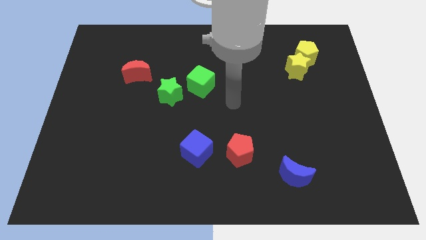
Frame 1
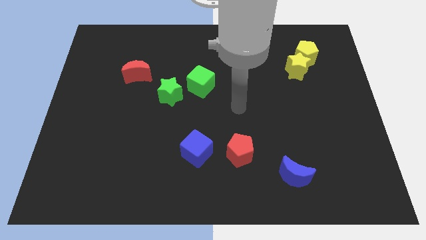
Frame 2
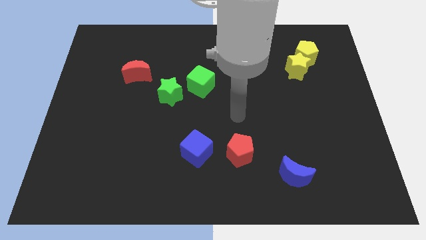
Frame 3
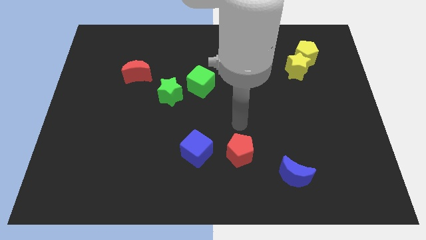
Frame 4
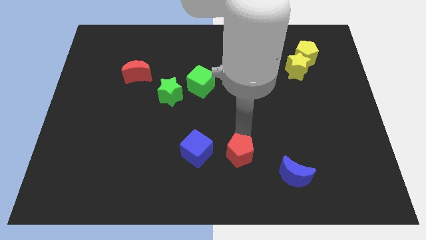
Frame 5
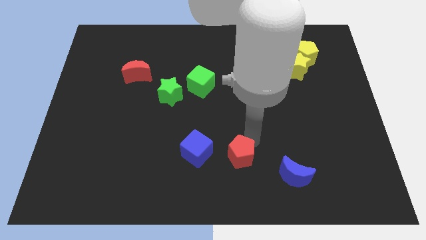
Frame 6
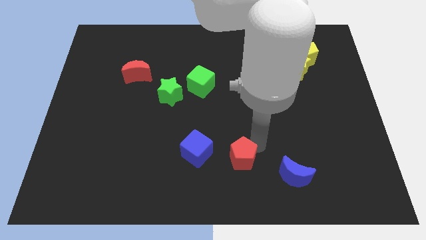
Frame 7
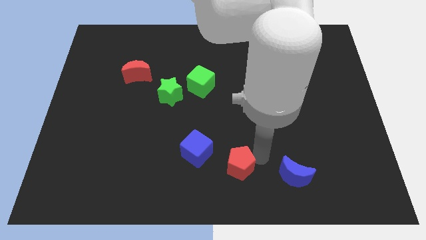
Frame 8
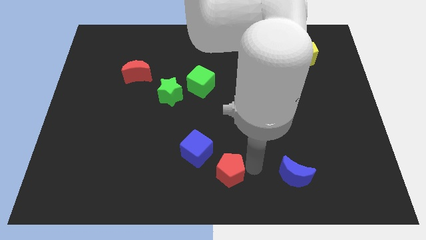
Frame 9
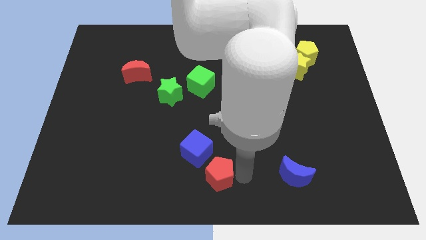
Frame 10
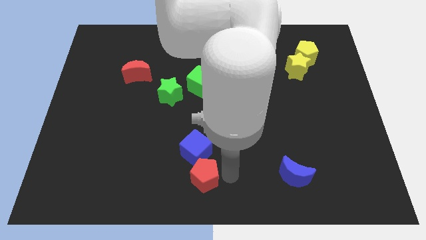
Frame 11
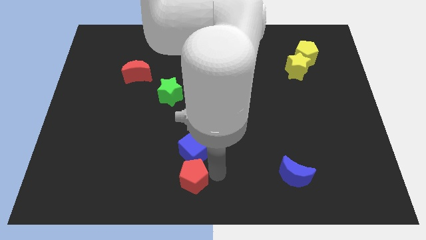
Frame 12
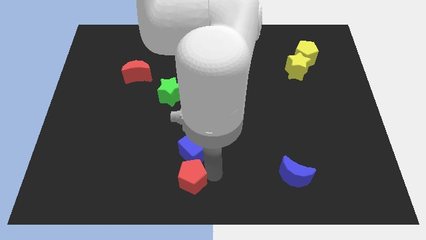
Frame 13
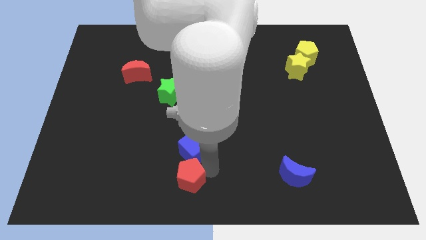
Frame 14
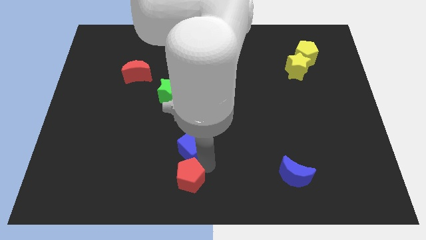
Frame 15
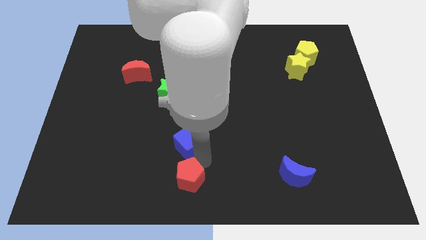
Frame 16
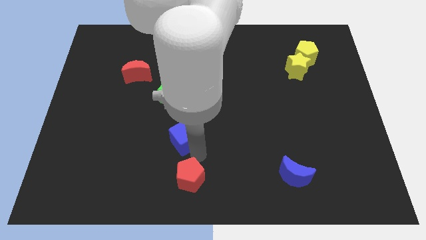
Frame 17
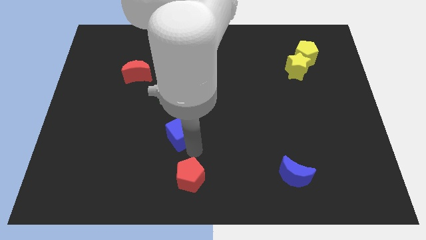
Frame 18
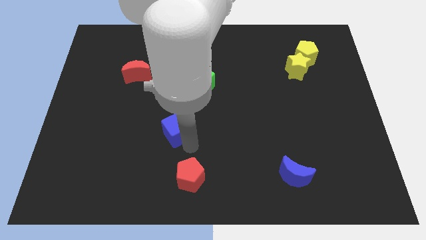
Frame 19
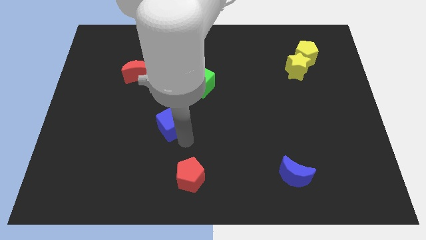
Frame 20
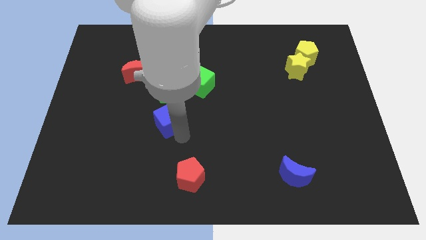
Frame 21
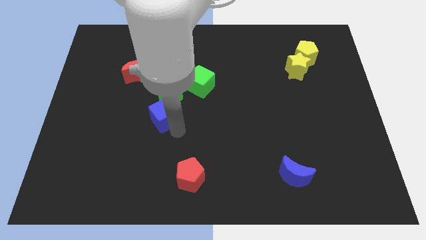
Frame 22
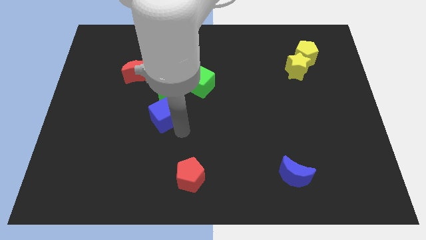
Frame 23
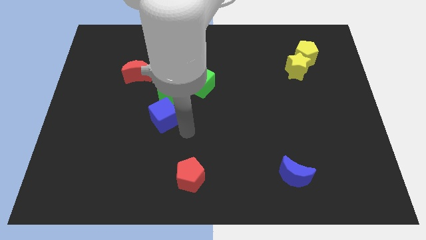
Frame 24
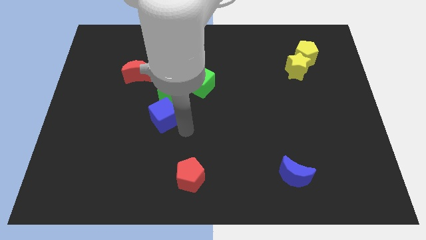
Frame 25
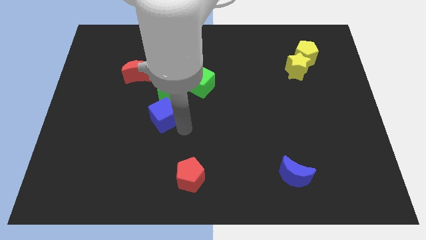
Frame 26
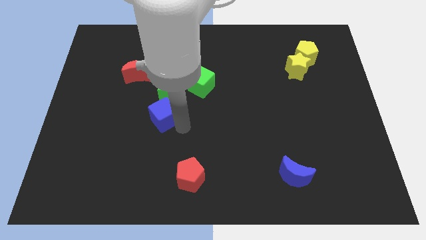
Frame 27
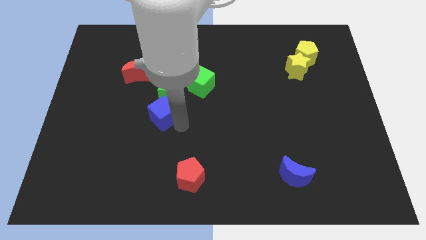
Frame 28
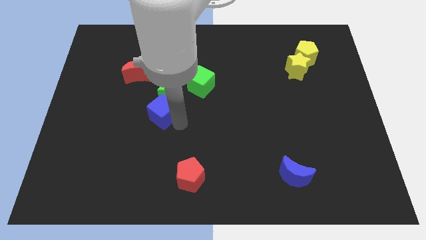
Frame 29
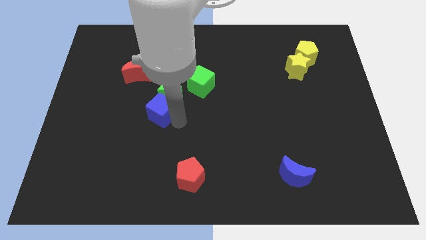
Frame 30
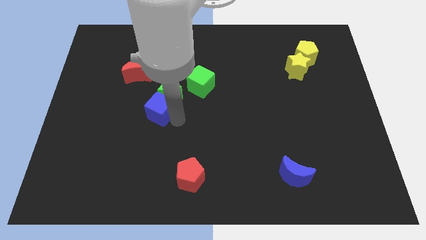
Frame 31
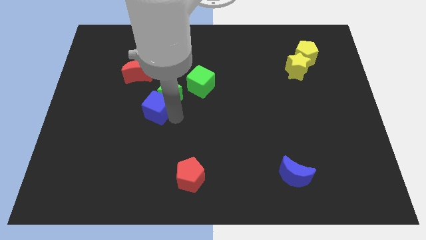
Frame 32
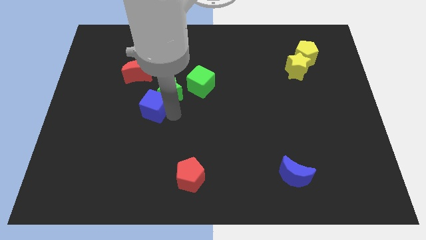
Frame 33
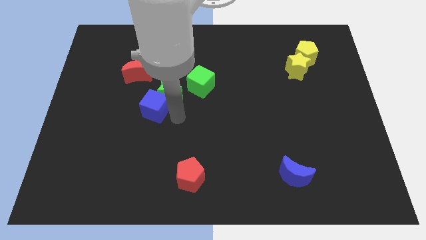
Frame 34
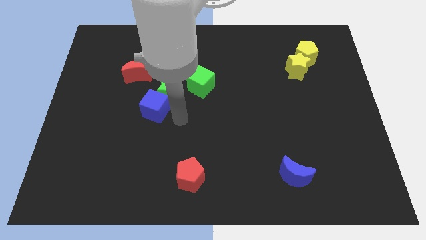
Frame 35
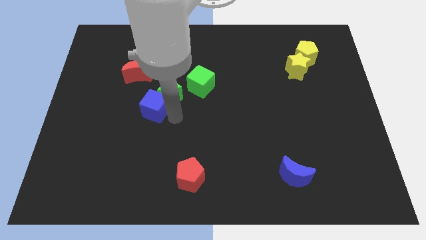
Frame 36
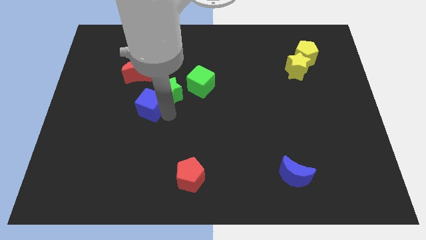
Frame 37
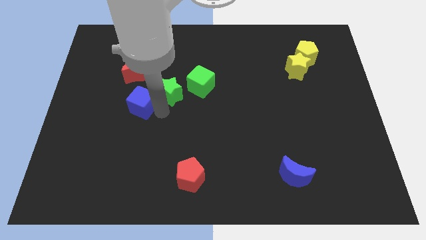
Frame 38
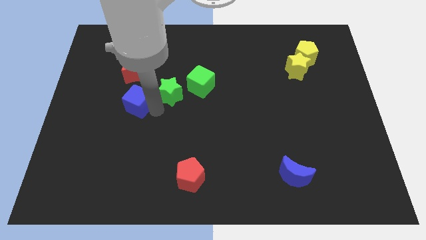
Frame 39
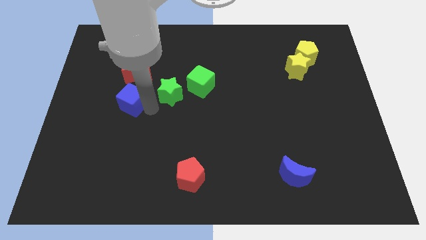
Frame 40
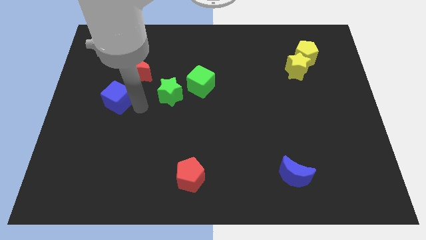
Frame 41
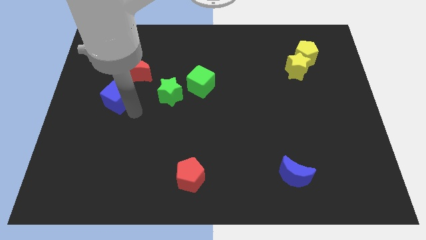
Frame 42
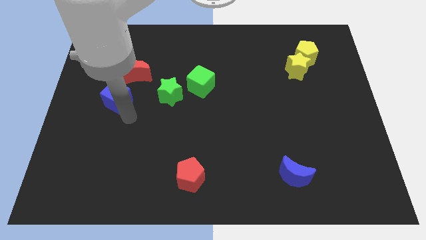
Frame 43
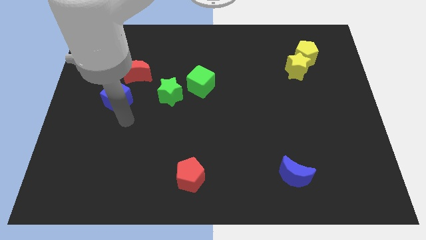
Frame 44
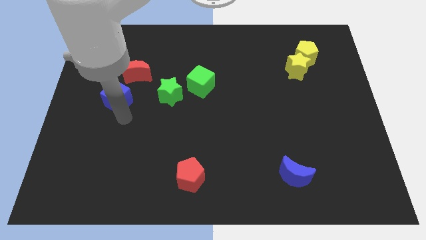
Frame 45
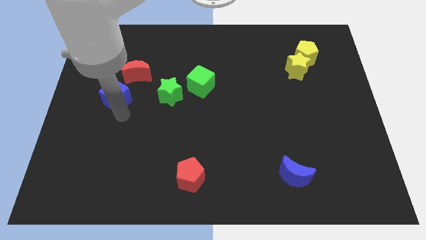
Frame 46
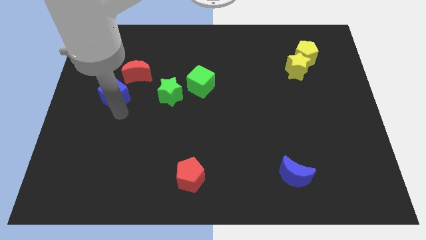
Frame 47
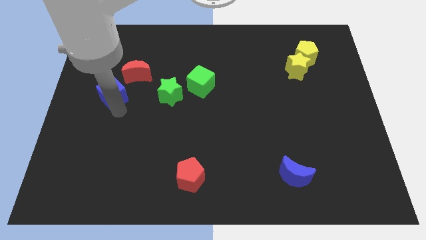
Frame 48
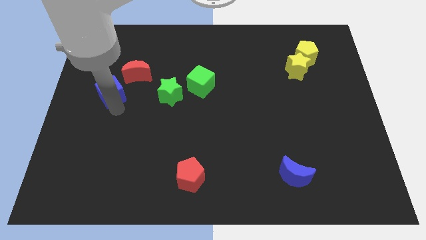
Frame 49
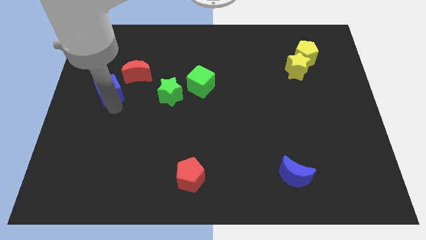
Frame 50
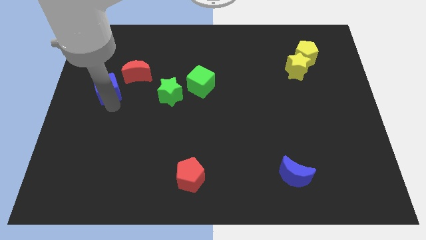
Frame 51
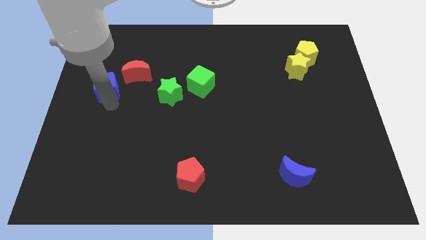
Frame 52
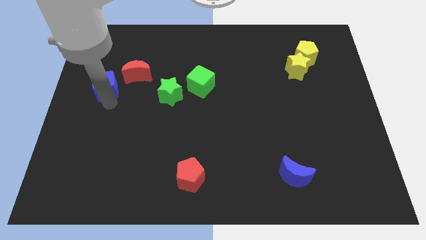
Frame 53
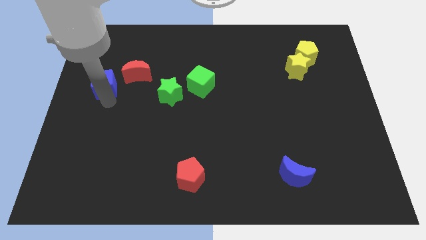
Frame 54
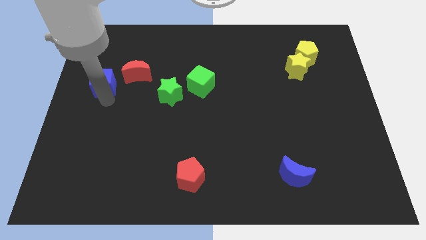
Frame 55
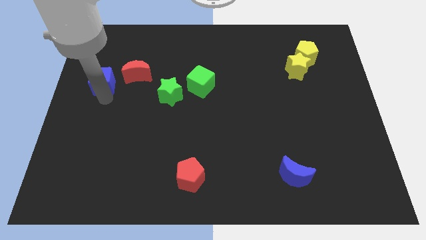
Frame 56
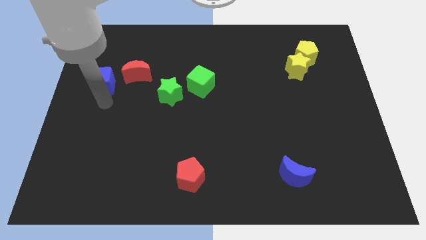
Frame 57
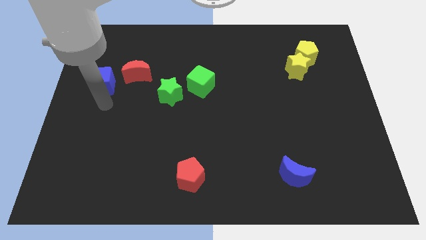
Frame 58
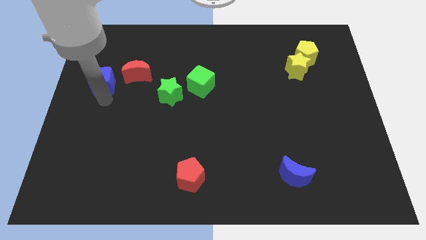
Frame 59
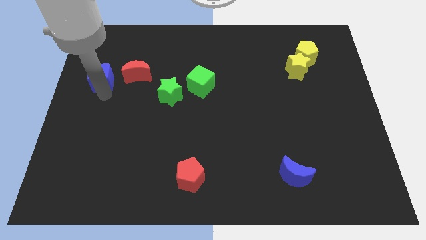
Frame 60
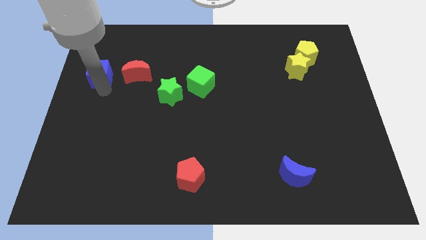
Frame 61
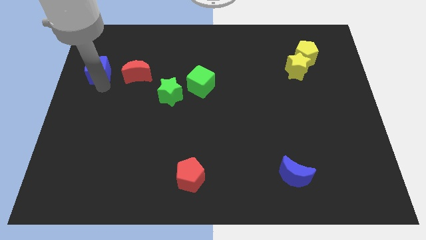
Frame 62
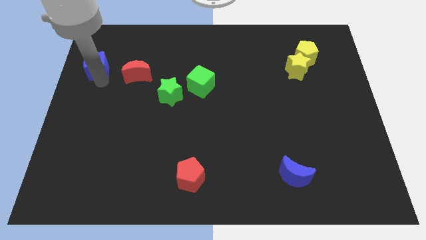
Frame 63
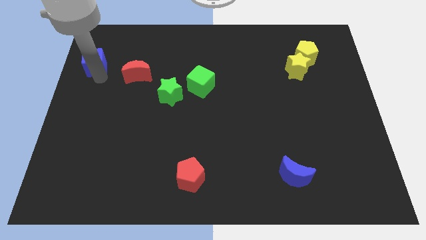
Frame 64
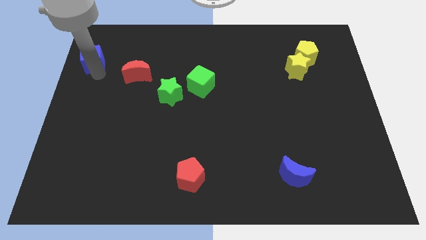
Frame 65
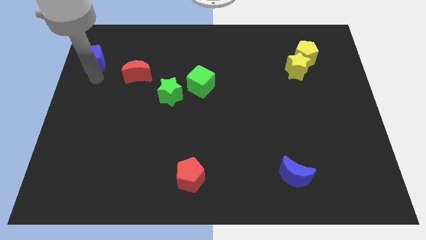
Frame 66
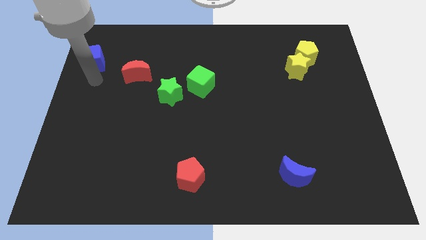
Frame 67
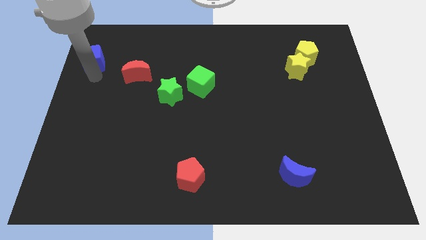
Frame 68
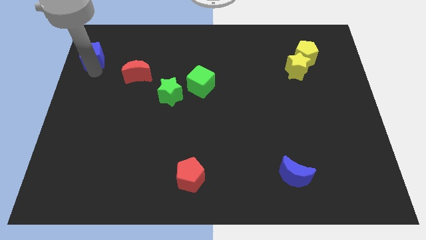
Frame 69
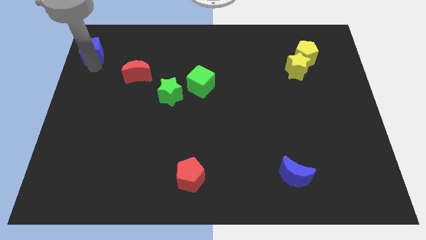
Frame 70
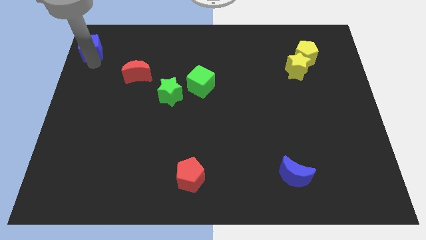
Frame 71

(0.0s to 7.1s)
slide the blue cube to the top left corner
